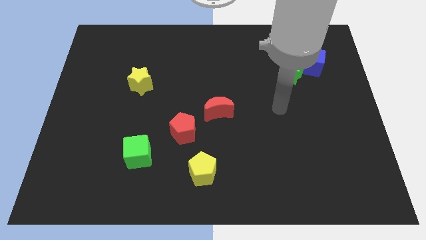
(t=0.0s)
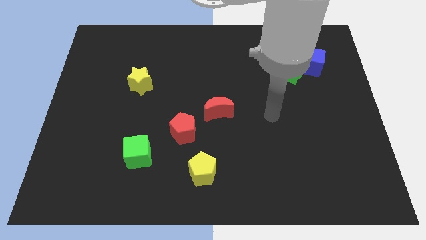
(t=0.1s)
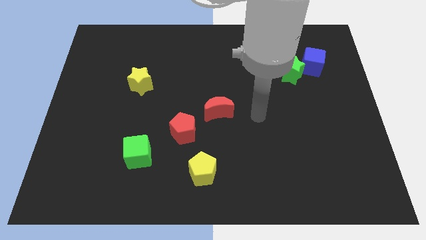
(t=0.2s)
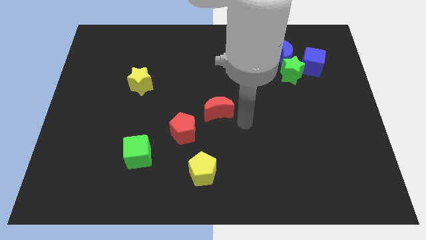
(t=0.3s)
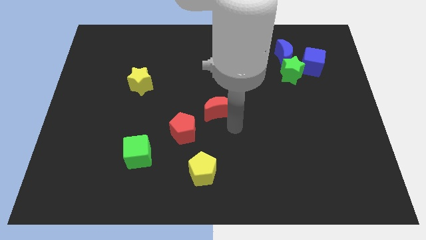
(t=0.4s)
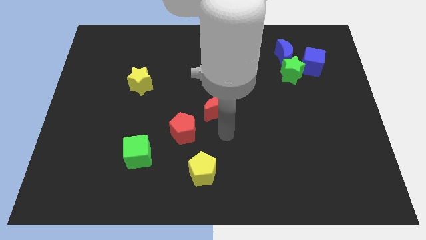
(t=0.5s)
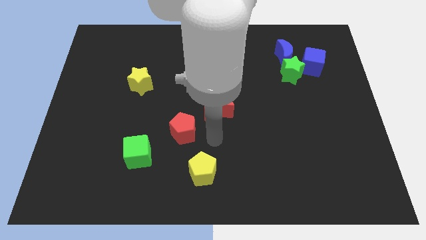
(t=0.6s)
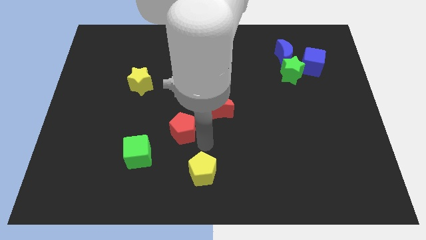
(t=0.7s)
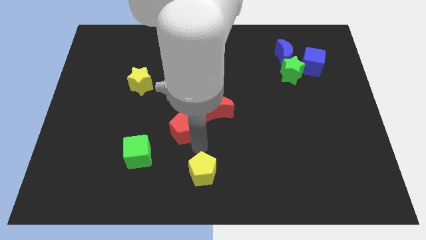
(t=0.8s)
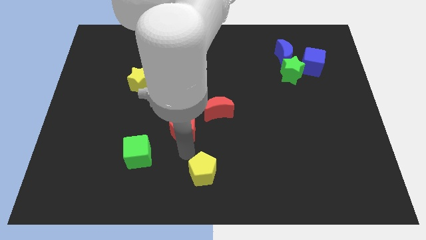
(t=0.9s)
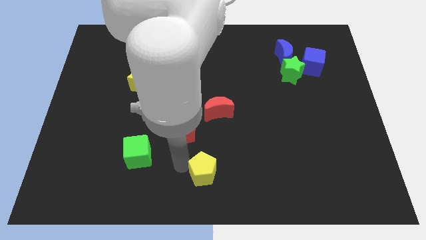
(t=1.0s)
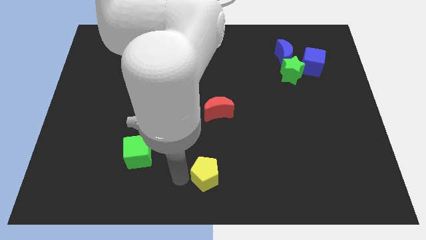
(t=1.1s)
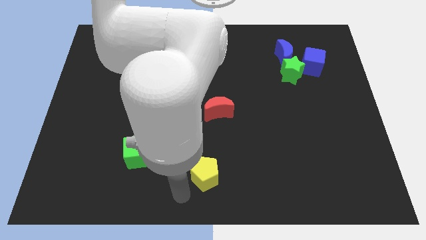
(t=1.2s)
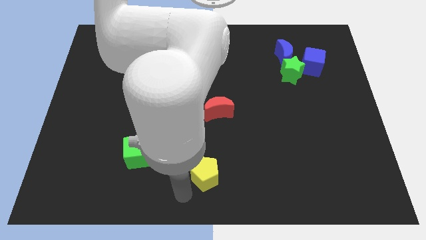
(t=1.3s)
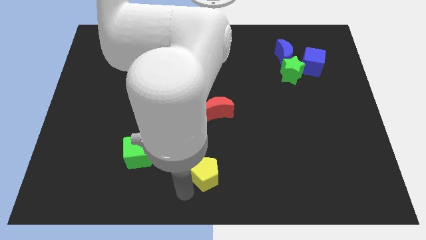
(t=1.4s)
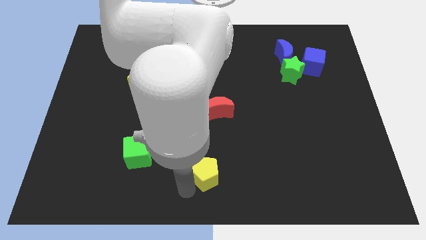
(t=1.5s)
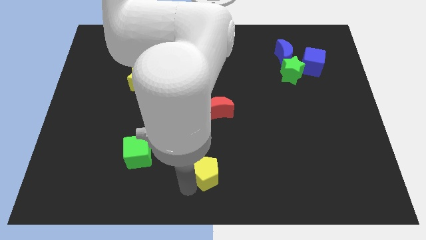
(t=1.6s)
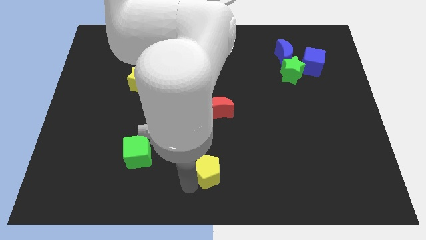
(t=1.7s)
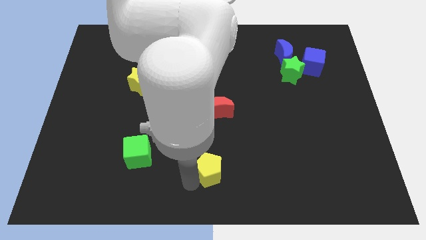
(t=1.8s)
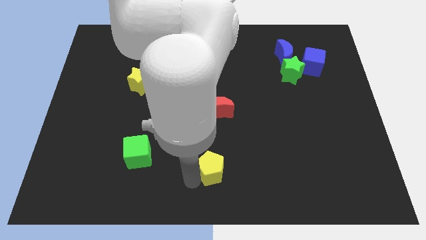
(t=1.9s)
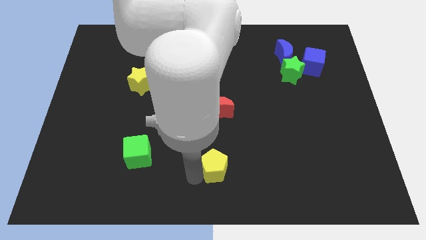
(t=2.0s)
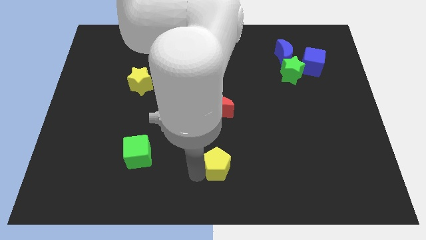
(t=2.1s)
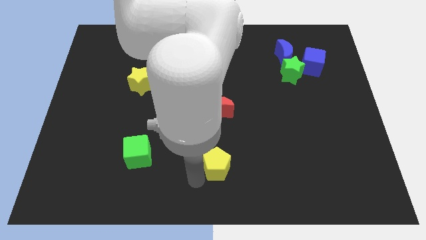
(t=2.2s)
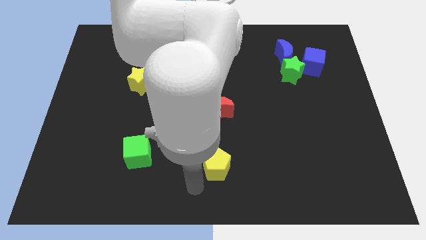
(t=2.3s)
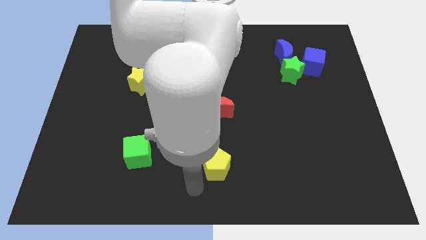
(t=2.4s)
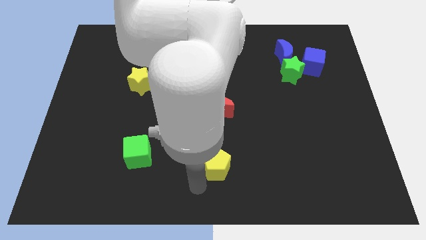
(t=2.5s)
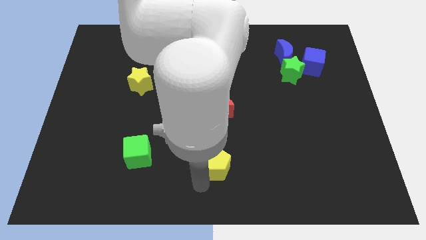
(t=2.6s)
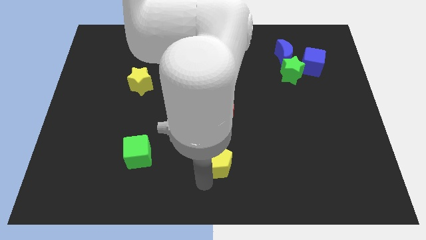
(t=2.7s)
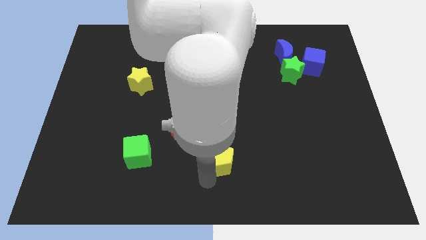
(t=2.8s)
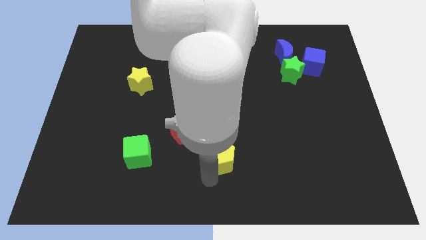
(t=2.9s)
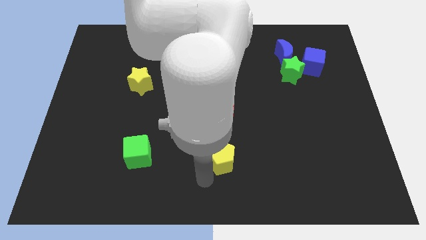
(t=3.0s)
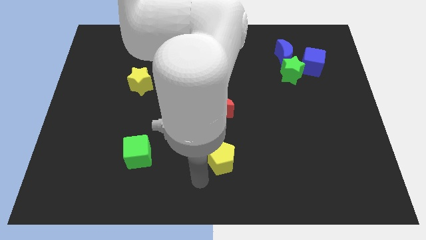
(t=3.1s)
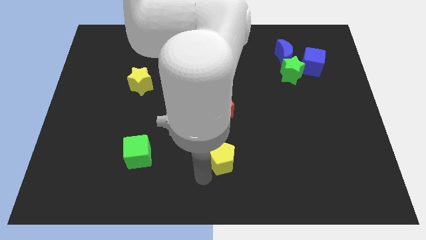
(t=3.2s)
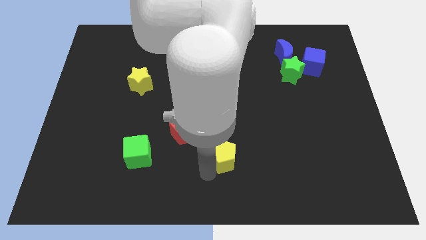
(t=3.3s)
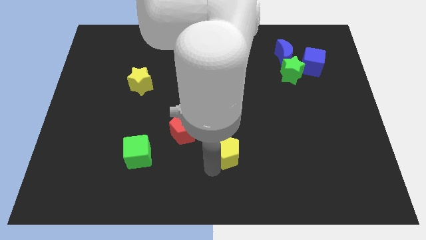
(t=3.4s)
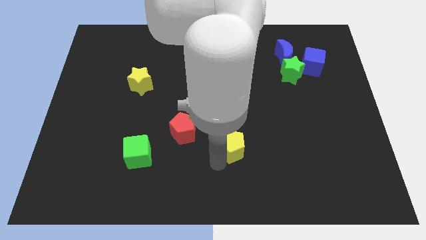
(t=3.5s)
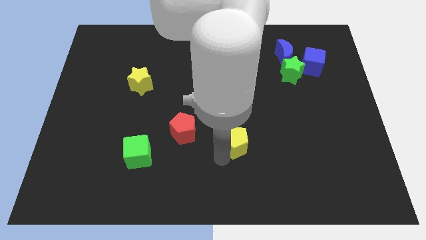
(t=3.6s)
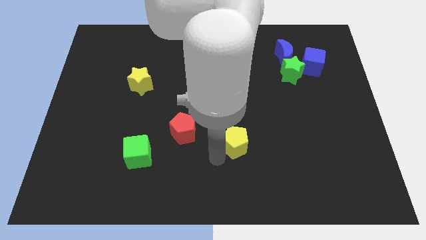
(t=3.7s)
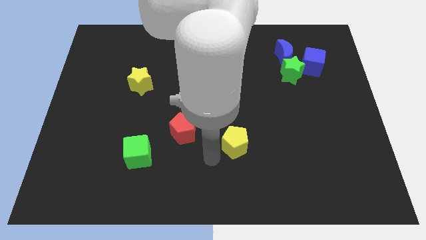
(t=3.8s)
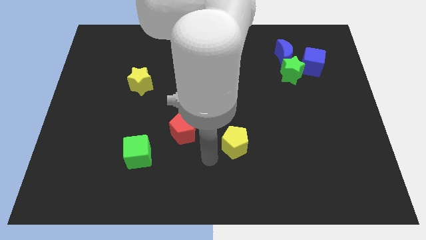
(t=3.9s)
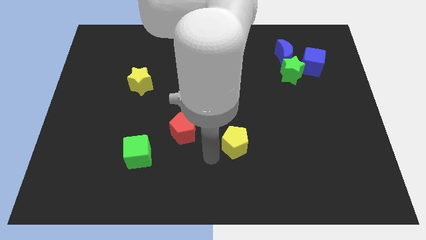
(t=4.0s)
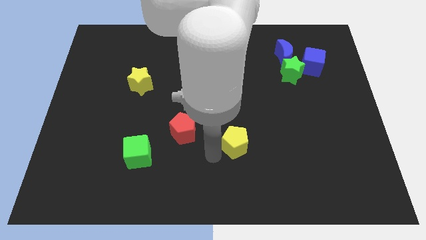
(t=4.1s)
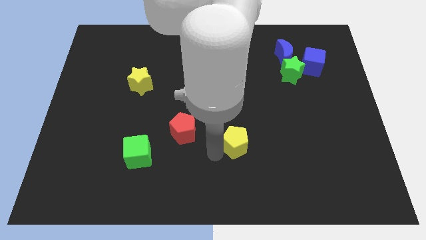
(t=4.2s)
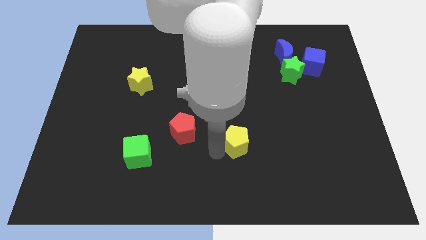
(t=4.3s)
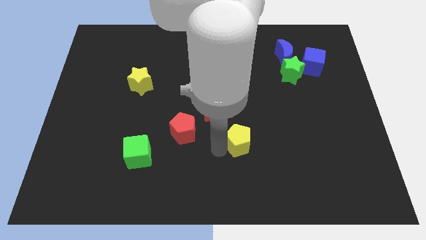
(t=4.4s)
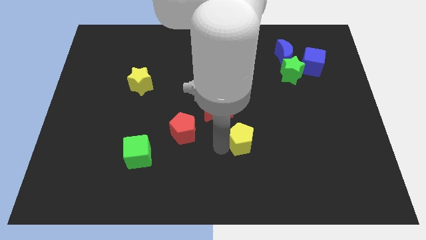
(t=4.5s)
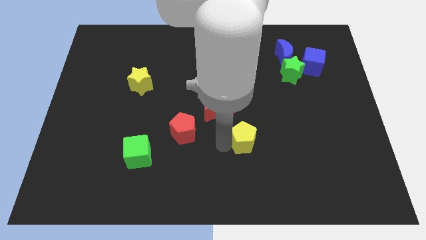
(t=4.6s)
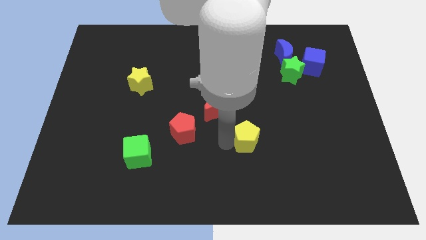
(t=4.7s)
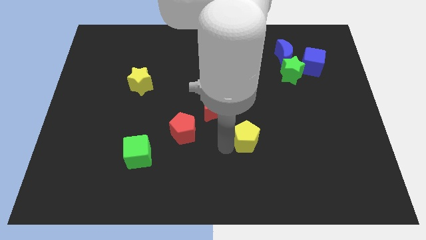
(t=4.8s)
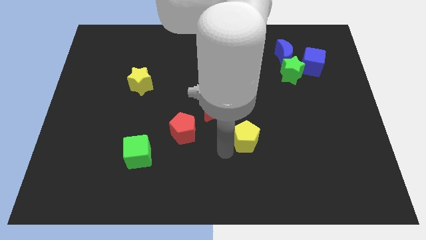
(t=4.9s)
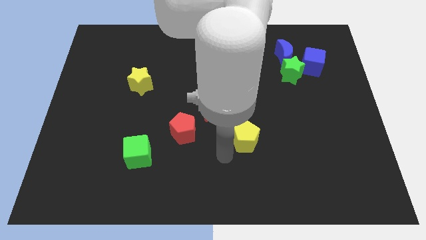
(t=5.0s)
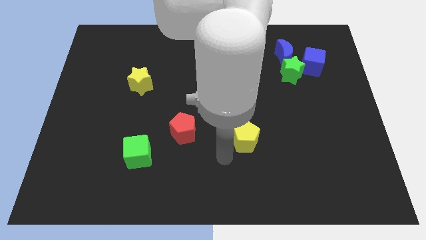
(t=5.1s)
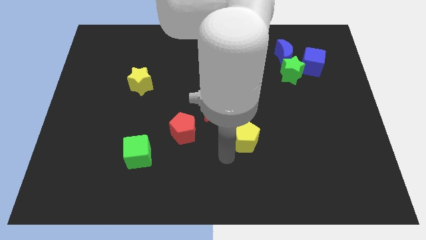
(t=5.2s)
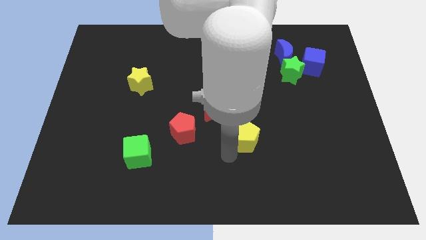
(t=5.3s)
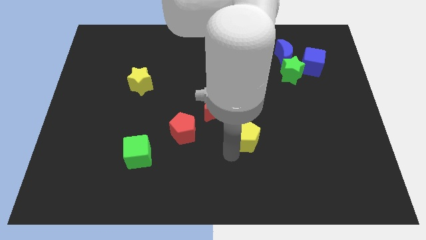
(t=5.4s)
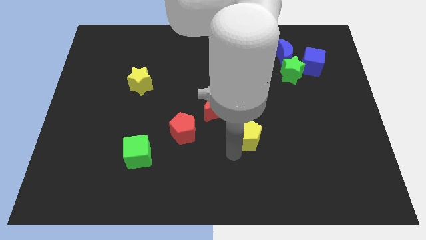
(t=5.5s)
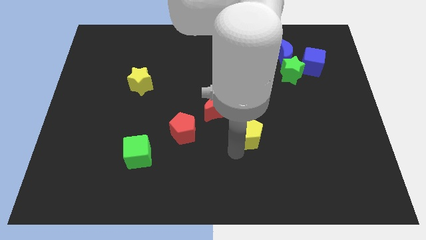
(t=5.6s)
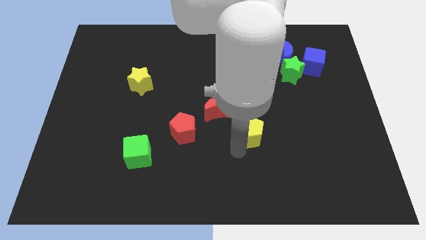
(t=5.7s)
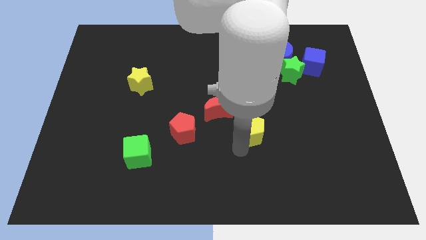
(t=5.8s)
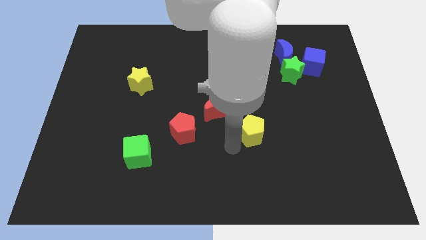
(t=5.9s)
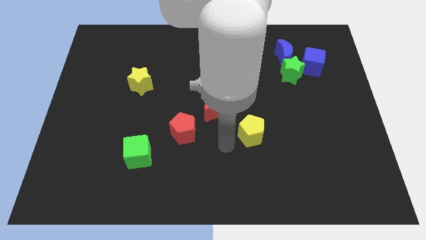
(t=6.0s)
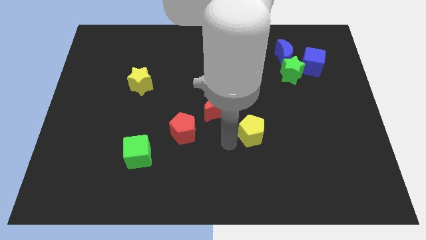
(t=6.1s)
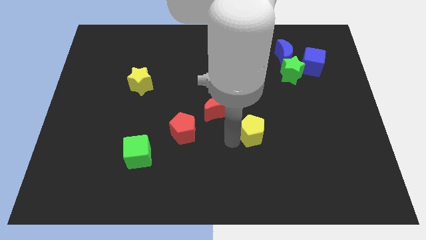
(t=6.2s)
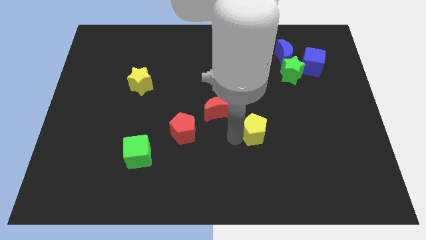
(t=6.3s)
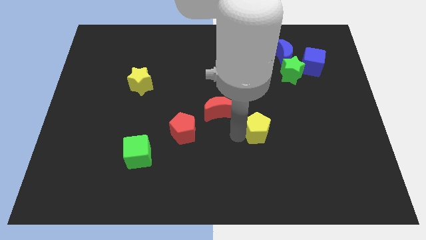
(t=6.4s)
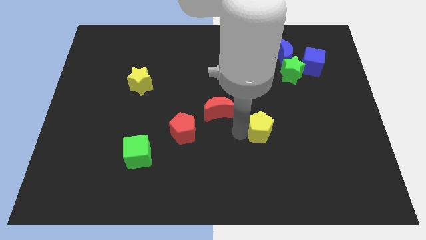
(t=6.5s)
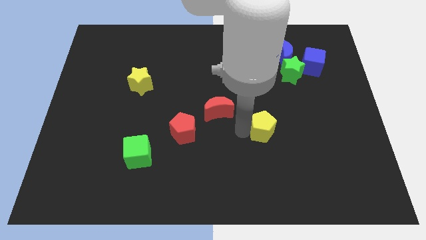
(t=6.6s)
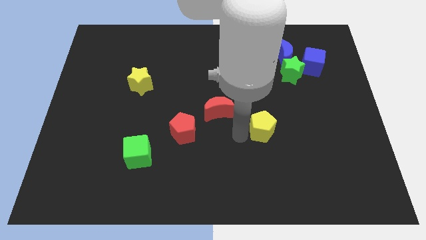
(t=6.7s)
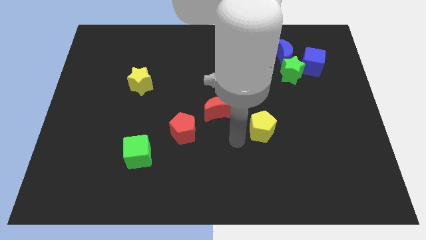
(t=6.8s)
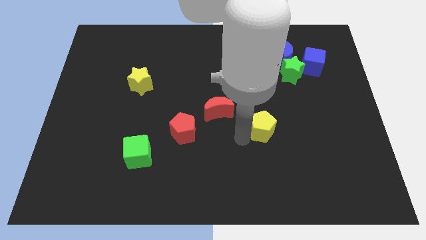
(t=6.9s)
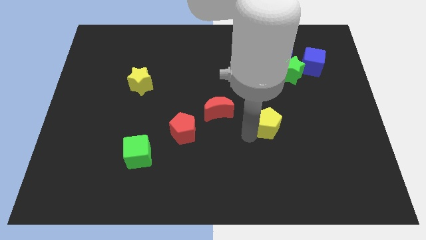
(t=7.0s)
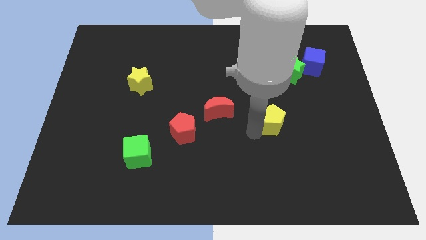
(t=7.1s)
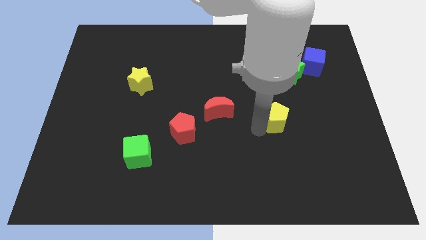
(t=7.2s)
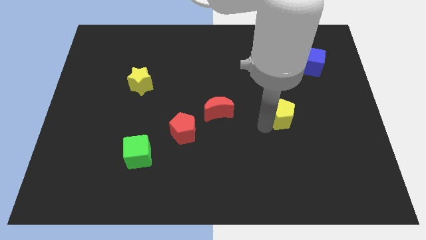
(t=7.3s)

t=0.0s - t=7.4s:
push the yellow pentagon to the bottom side of the green star
